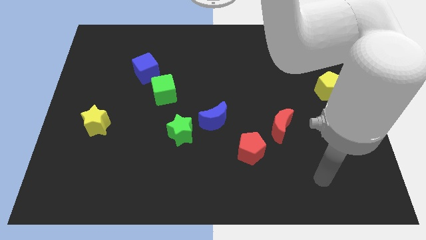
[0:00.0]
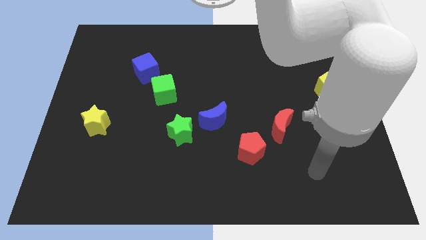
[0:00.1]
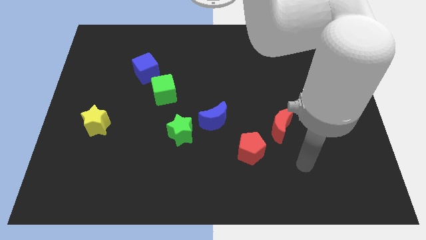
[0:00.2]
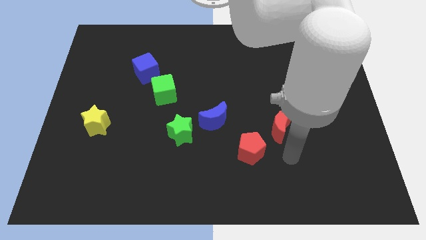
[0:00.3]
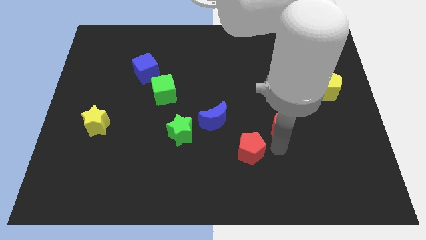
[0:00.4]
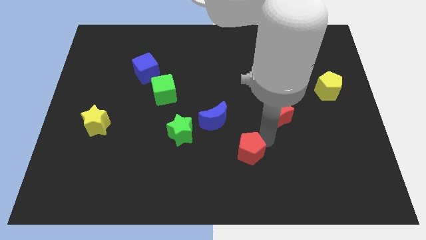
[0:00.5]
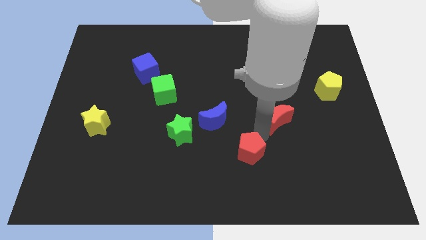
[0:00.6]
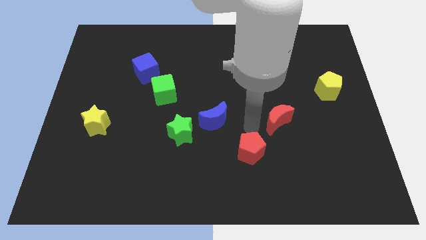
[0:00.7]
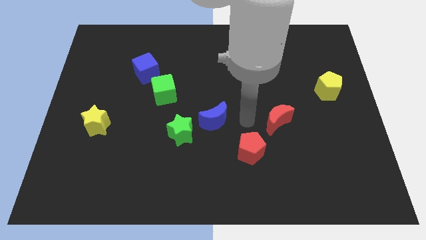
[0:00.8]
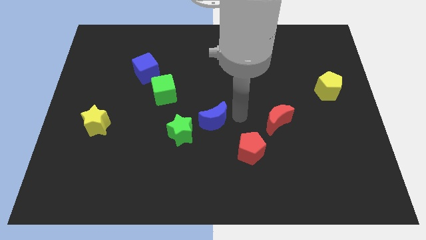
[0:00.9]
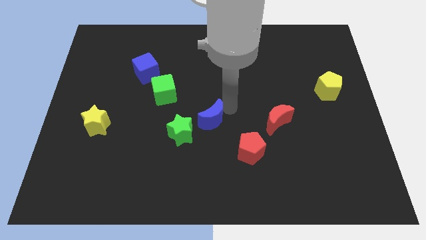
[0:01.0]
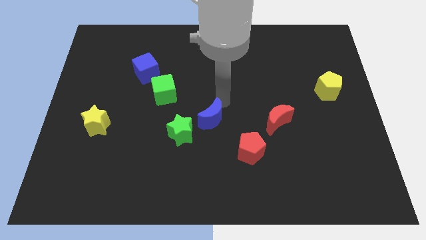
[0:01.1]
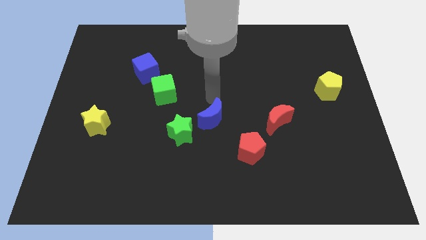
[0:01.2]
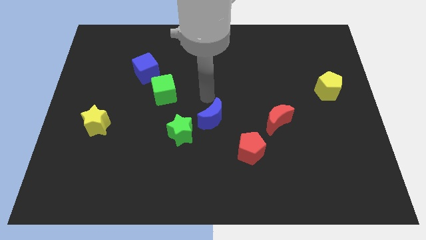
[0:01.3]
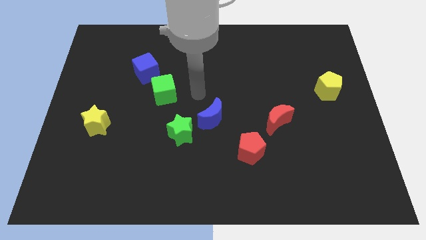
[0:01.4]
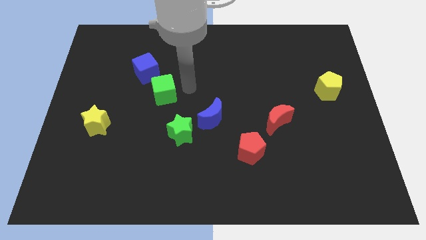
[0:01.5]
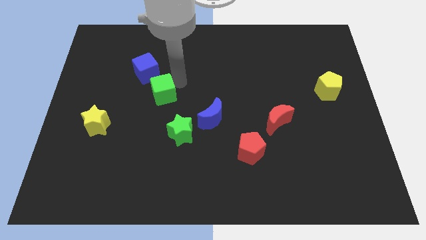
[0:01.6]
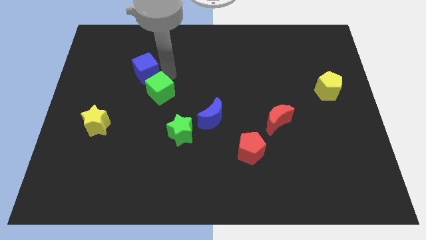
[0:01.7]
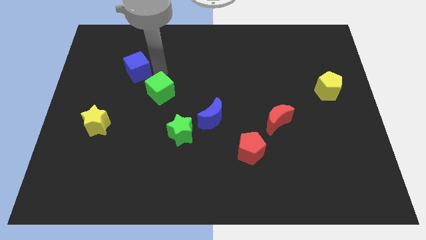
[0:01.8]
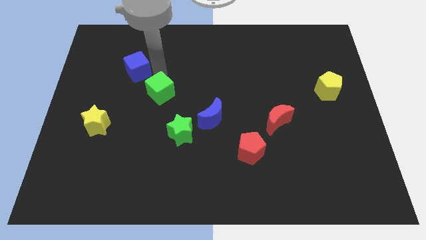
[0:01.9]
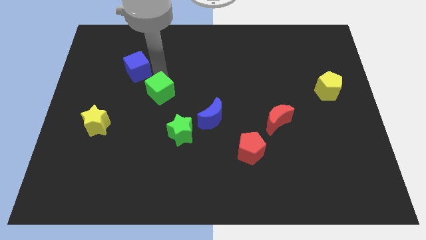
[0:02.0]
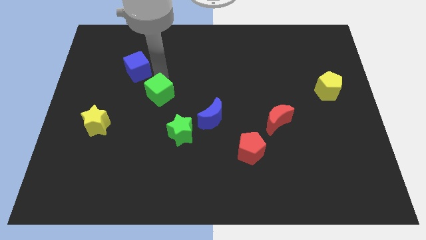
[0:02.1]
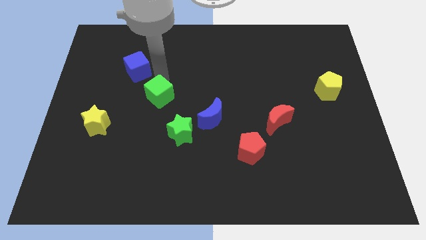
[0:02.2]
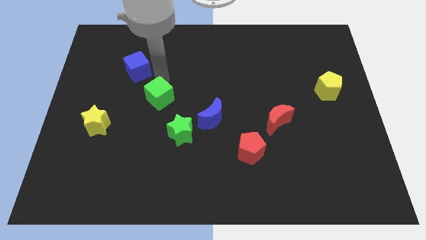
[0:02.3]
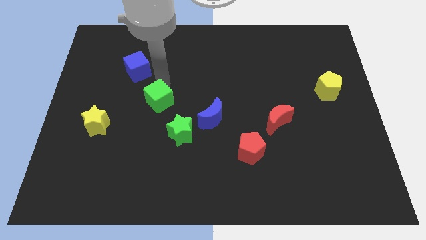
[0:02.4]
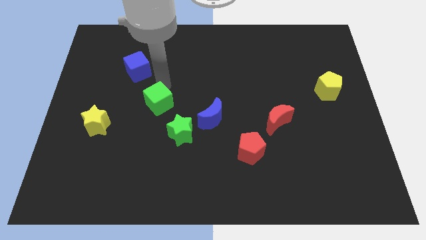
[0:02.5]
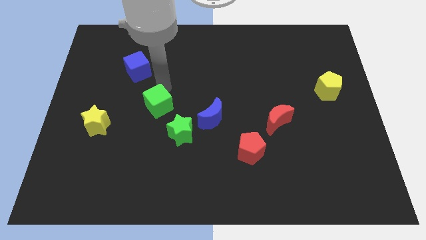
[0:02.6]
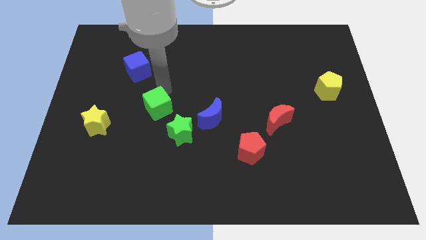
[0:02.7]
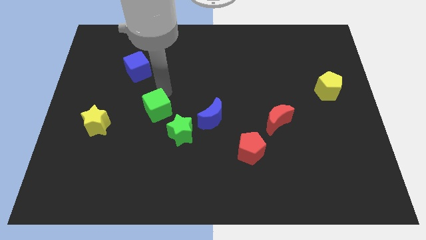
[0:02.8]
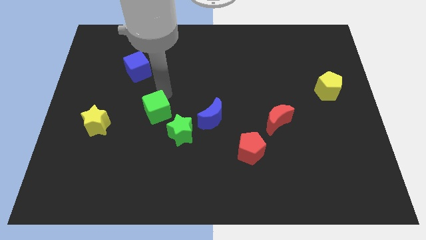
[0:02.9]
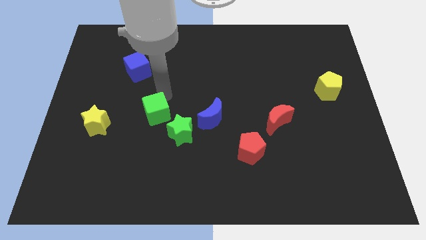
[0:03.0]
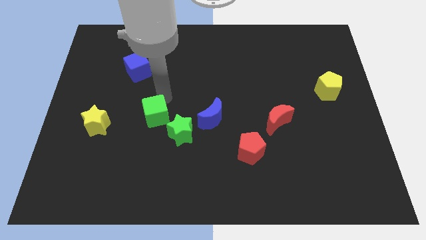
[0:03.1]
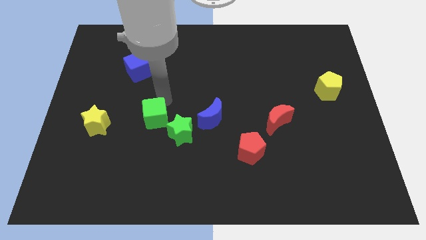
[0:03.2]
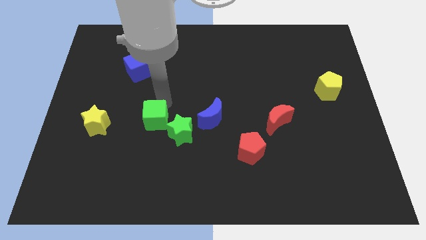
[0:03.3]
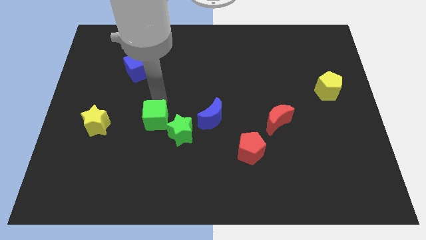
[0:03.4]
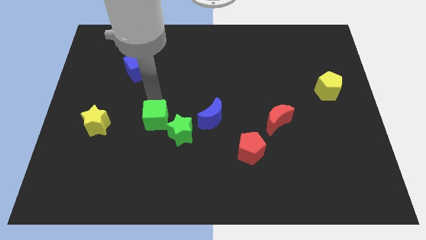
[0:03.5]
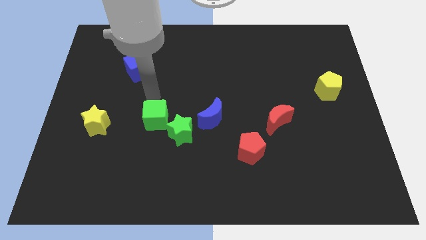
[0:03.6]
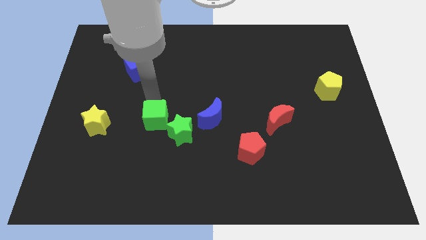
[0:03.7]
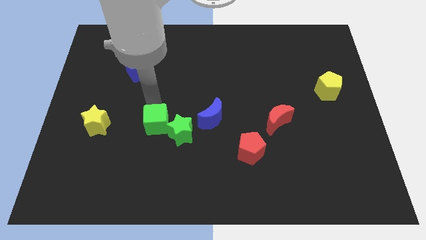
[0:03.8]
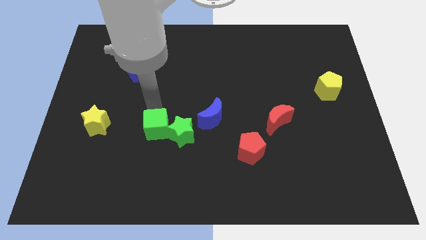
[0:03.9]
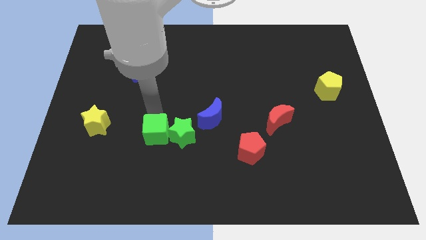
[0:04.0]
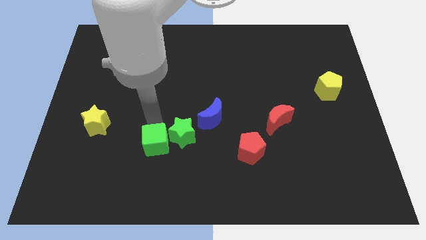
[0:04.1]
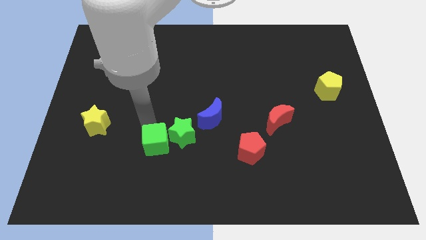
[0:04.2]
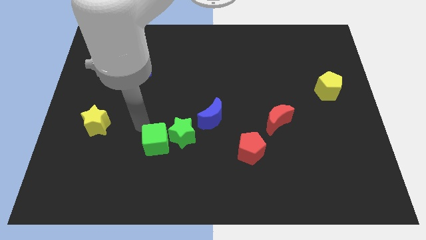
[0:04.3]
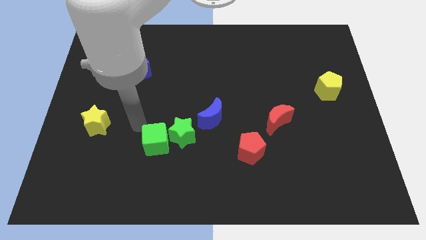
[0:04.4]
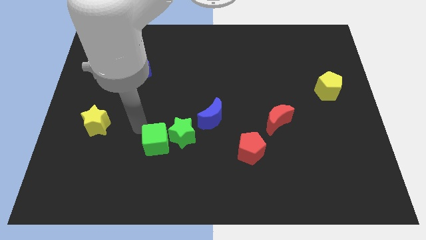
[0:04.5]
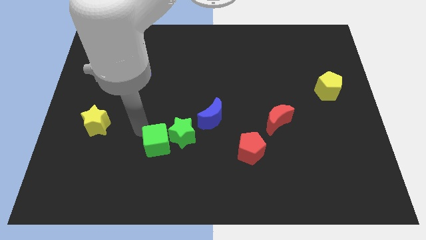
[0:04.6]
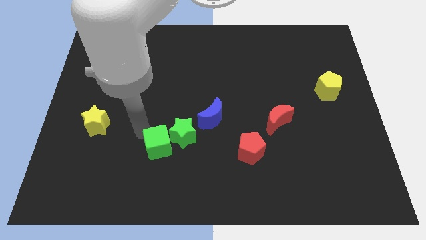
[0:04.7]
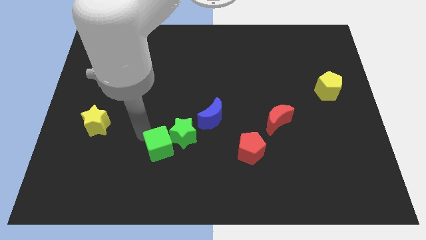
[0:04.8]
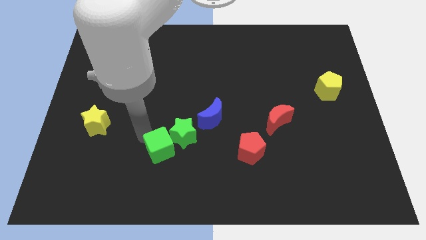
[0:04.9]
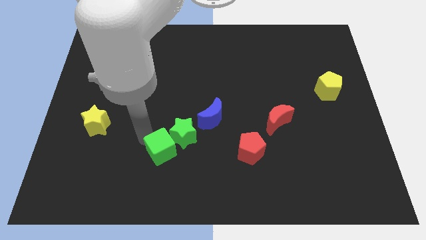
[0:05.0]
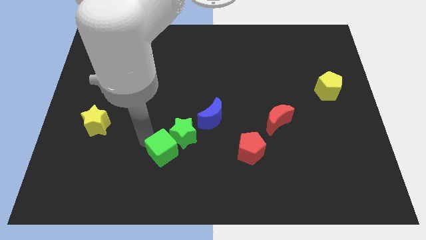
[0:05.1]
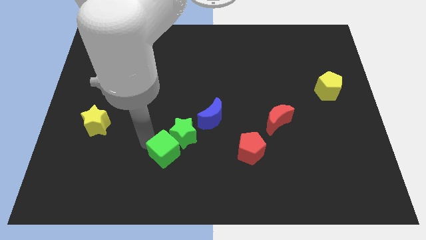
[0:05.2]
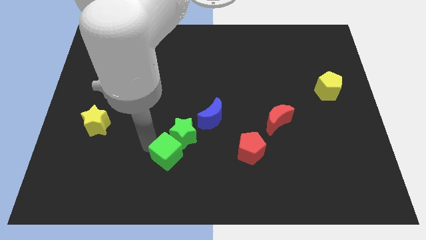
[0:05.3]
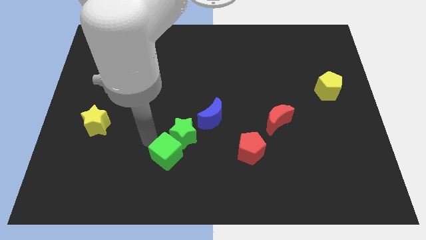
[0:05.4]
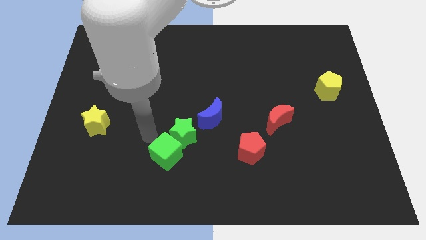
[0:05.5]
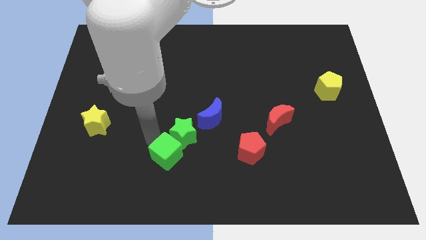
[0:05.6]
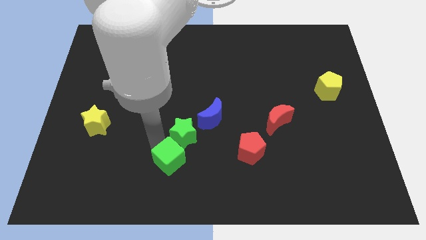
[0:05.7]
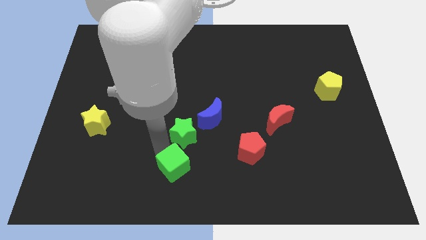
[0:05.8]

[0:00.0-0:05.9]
move the green cube to the bottom
